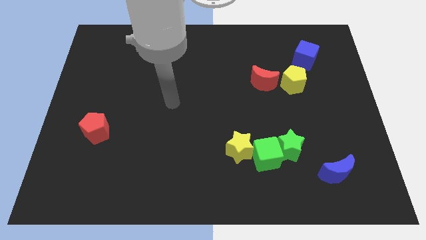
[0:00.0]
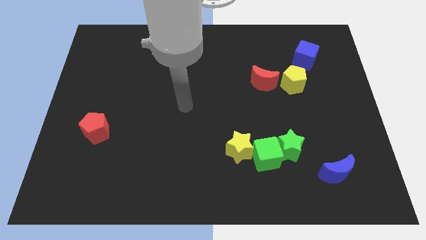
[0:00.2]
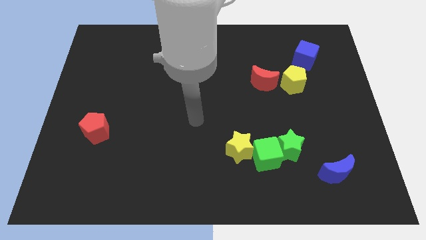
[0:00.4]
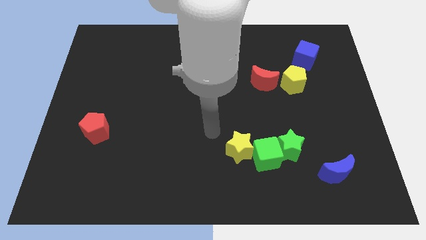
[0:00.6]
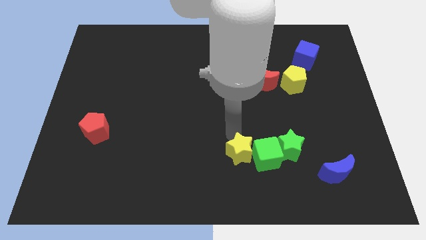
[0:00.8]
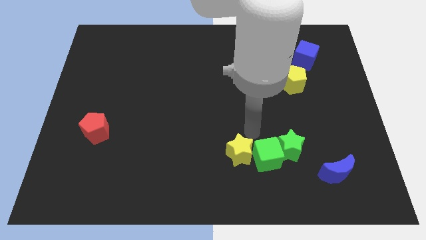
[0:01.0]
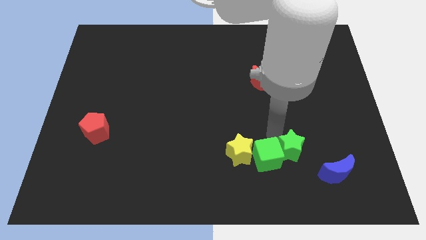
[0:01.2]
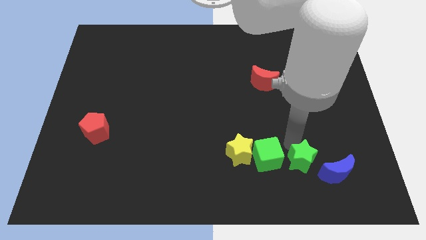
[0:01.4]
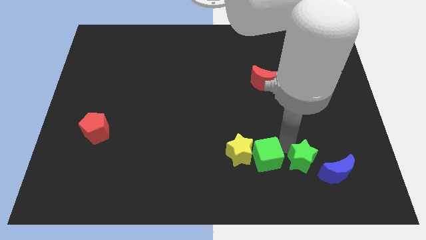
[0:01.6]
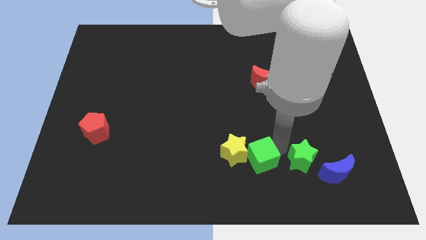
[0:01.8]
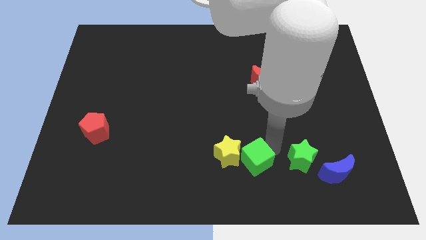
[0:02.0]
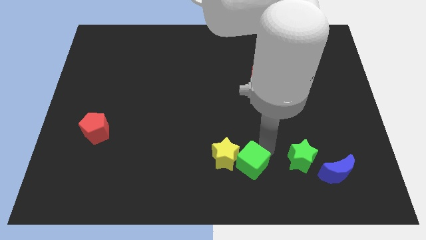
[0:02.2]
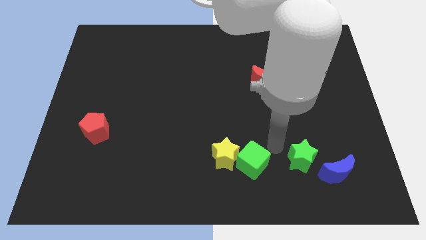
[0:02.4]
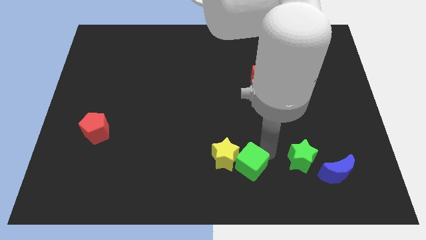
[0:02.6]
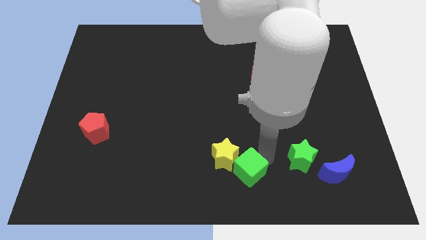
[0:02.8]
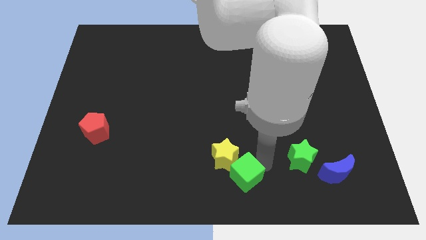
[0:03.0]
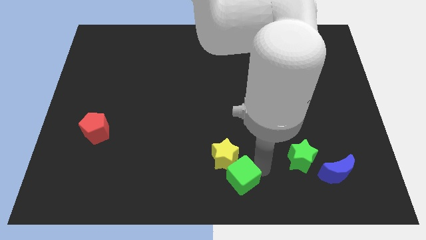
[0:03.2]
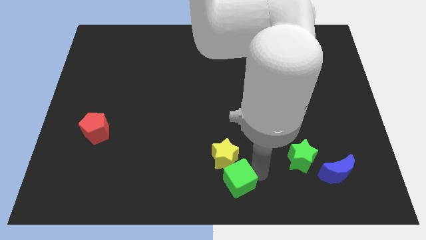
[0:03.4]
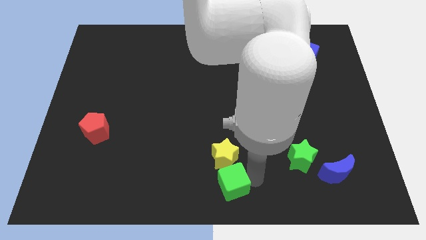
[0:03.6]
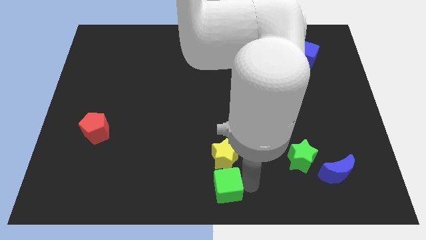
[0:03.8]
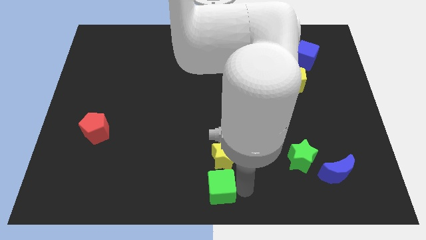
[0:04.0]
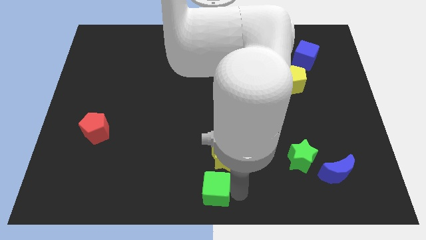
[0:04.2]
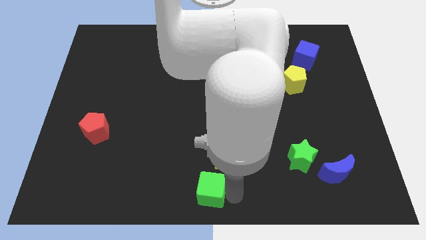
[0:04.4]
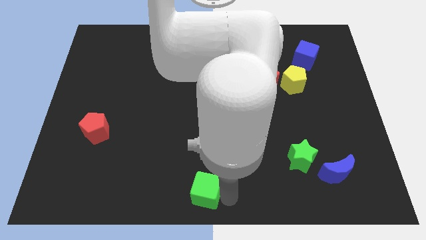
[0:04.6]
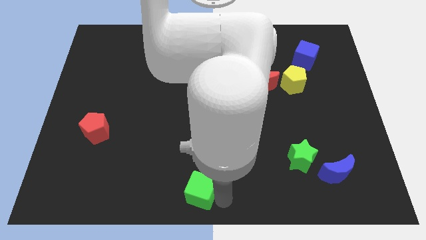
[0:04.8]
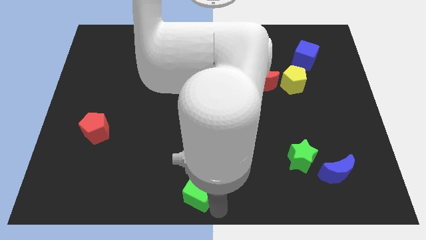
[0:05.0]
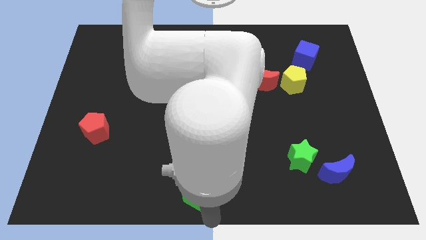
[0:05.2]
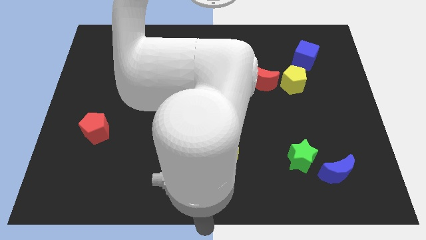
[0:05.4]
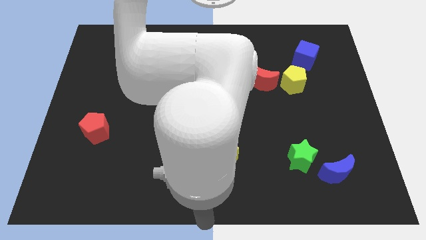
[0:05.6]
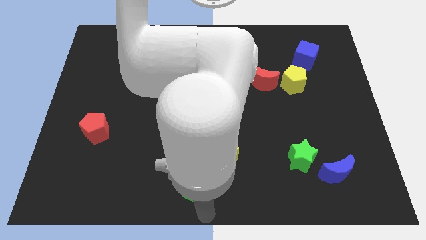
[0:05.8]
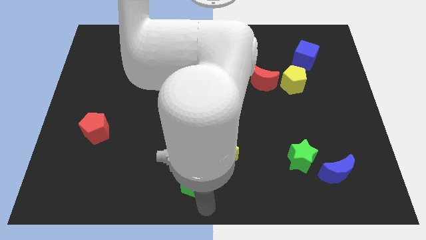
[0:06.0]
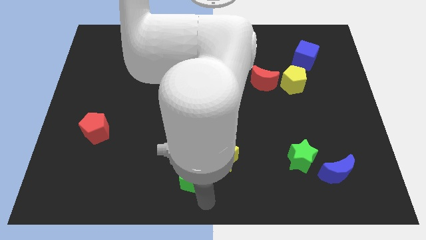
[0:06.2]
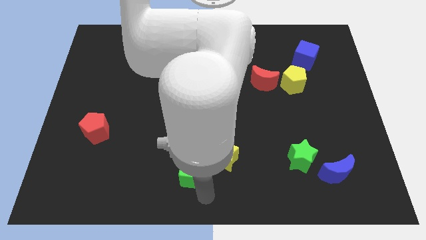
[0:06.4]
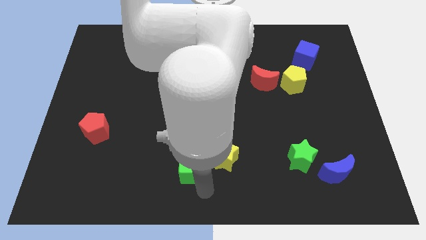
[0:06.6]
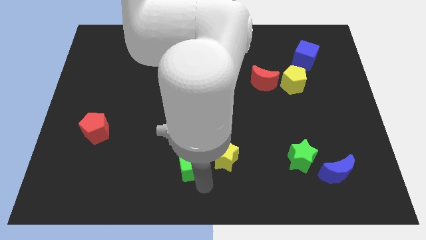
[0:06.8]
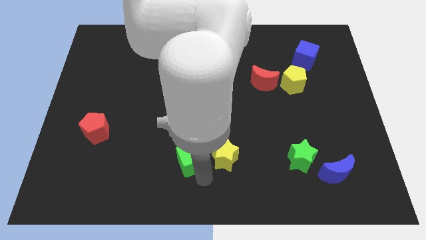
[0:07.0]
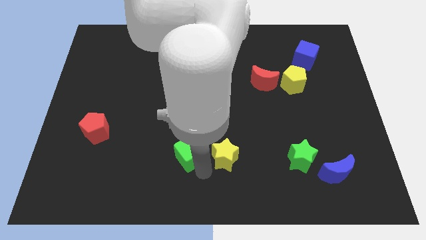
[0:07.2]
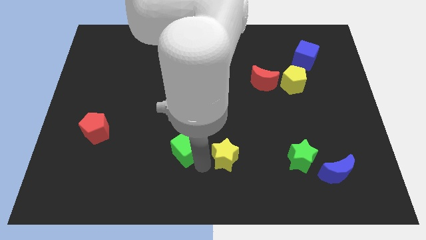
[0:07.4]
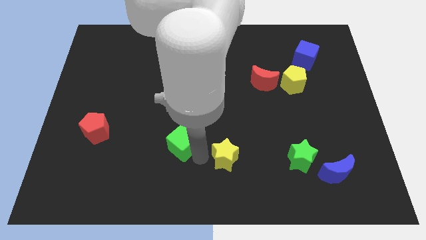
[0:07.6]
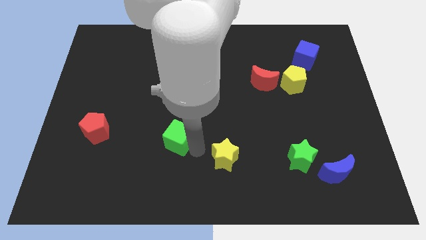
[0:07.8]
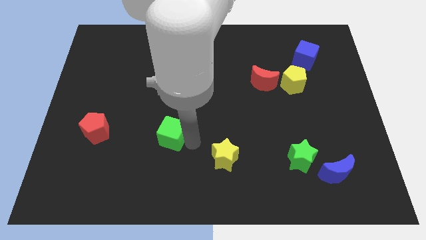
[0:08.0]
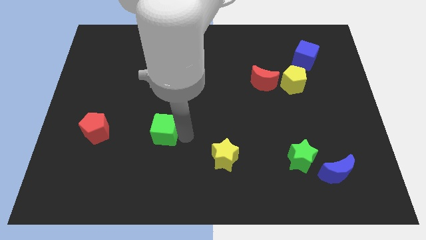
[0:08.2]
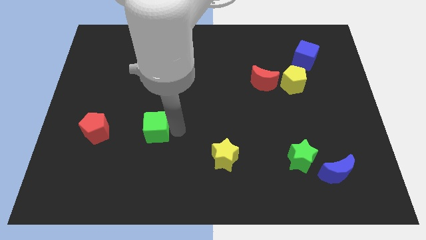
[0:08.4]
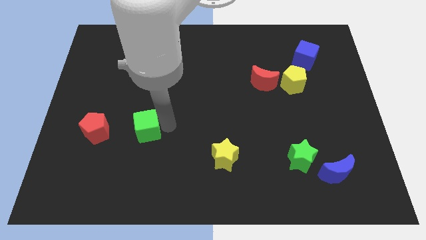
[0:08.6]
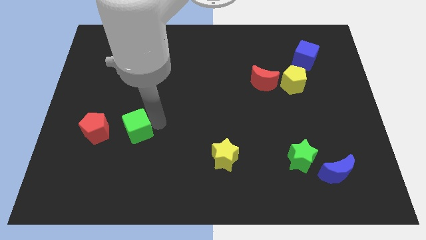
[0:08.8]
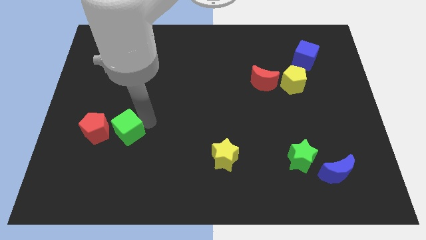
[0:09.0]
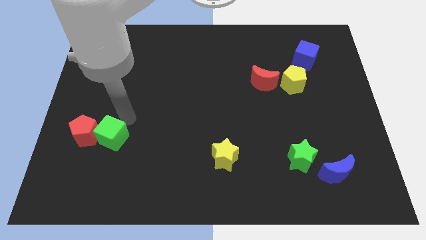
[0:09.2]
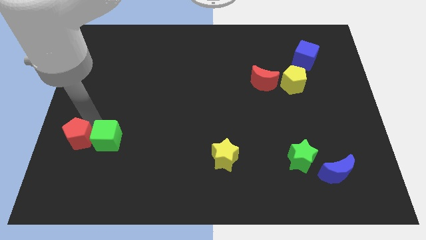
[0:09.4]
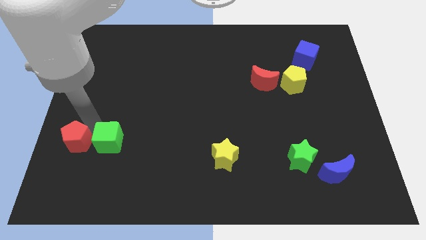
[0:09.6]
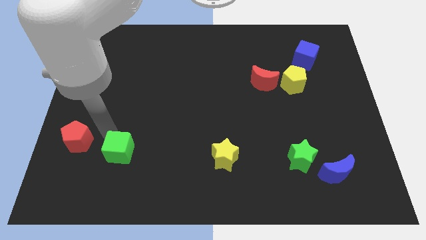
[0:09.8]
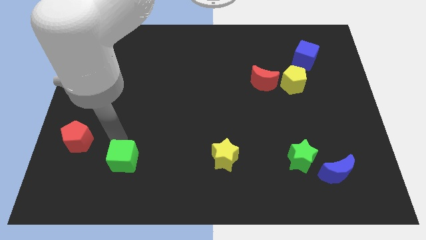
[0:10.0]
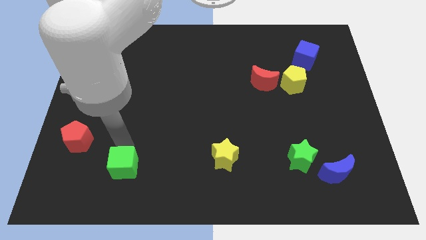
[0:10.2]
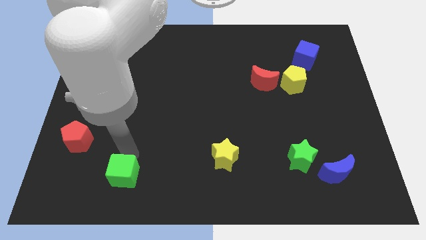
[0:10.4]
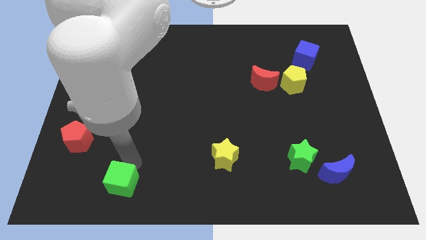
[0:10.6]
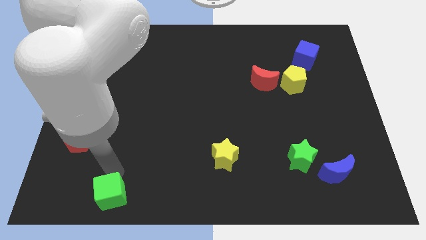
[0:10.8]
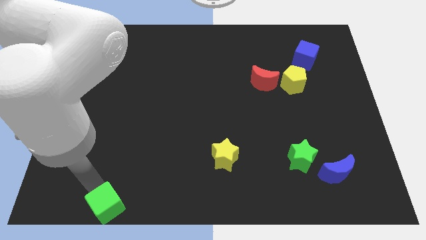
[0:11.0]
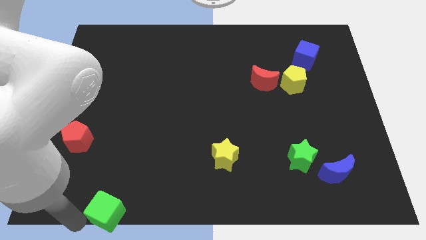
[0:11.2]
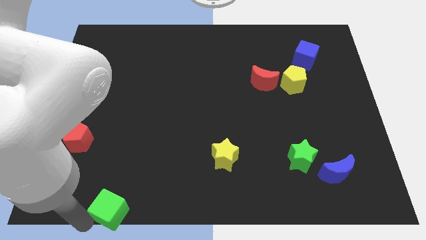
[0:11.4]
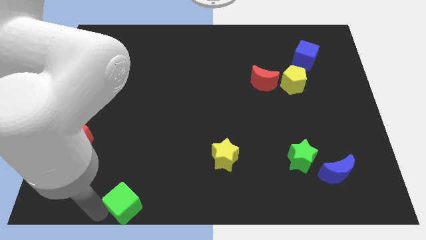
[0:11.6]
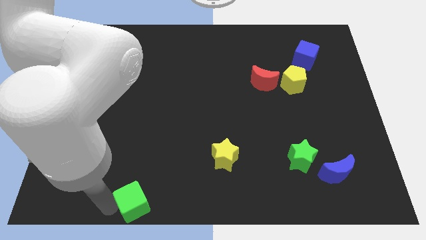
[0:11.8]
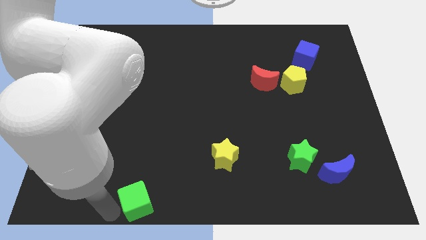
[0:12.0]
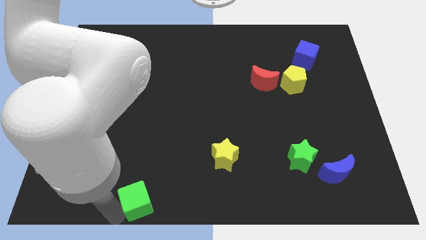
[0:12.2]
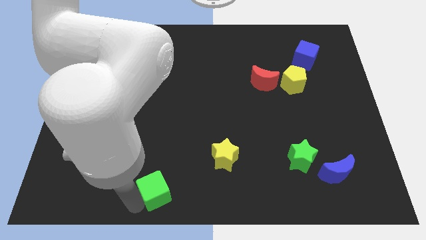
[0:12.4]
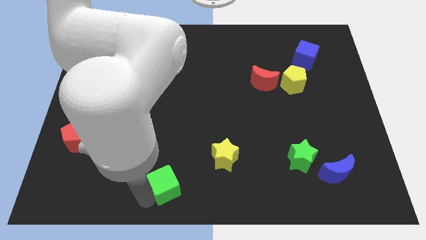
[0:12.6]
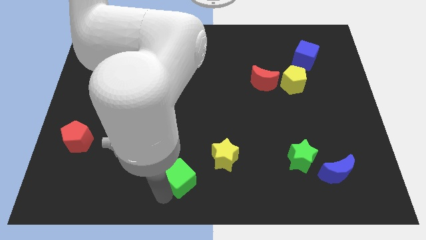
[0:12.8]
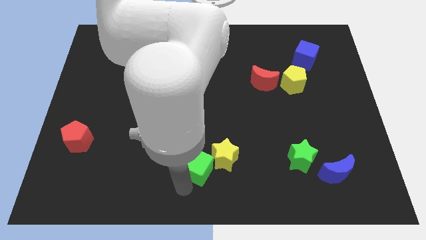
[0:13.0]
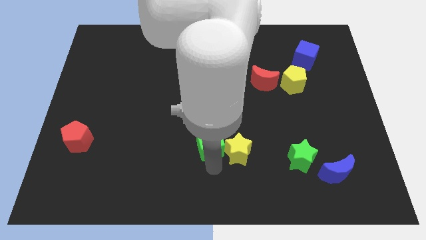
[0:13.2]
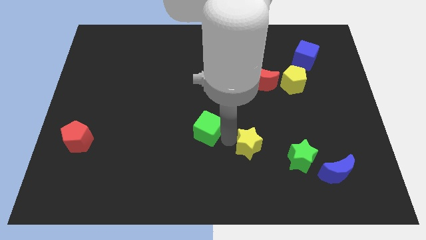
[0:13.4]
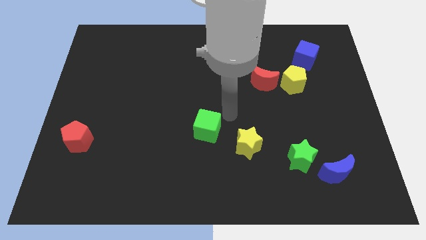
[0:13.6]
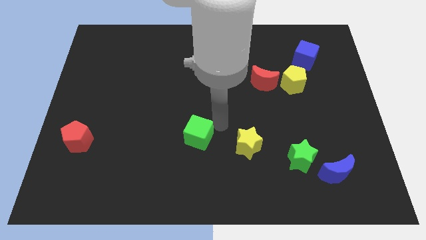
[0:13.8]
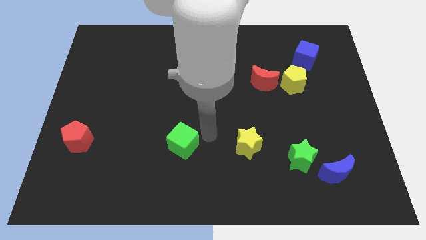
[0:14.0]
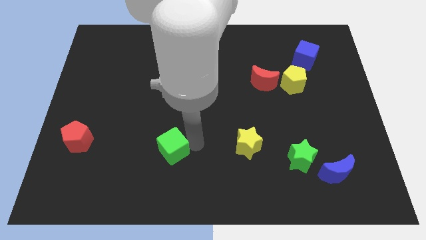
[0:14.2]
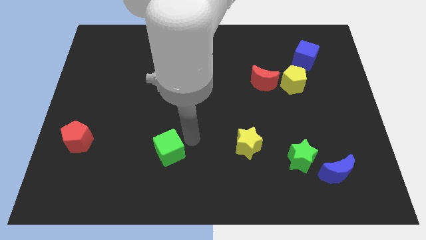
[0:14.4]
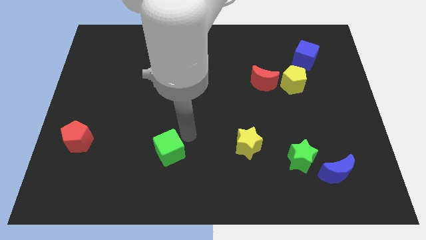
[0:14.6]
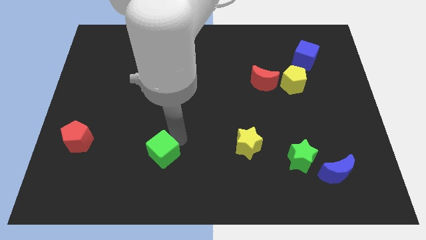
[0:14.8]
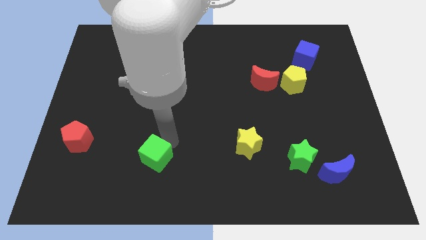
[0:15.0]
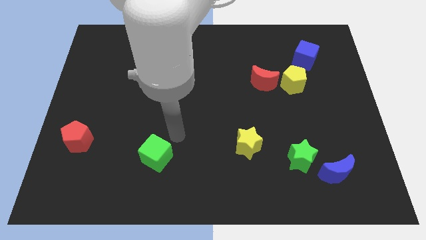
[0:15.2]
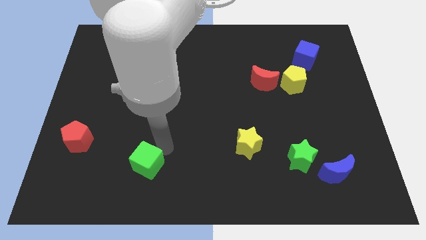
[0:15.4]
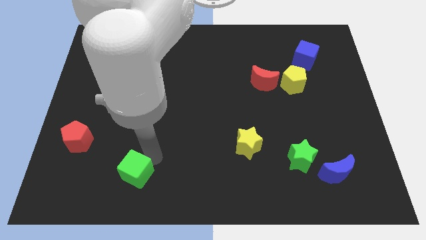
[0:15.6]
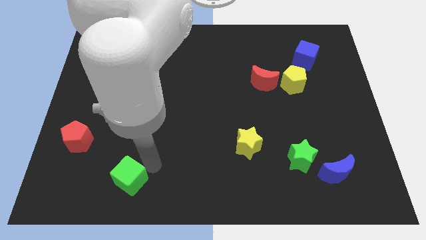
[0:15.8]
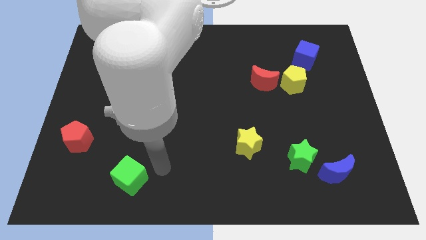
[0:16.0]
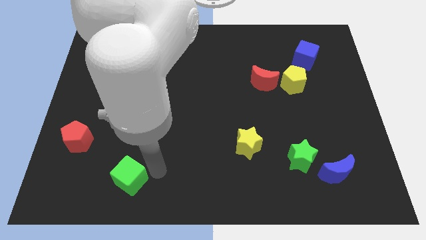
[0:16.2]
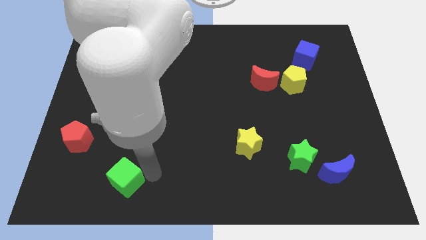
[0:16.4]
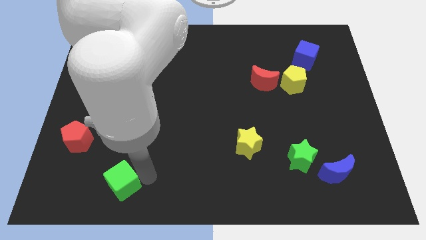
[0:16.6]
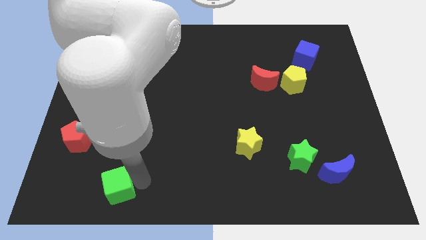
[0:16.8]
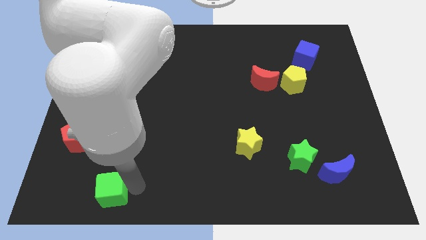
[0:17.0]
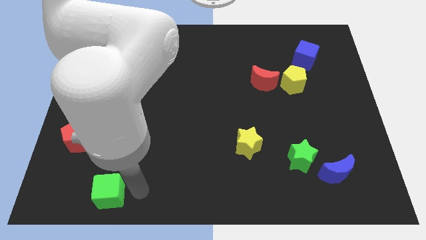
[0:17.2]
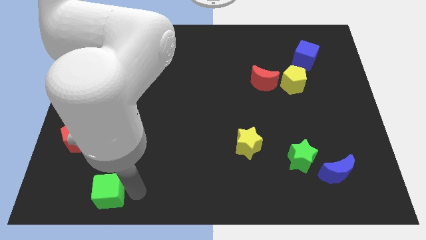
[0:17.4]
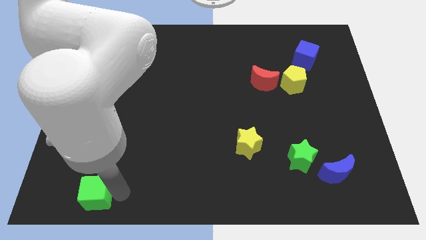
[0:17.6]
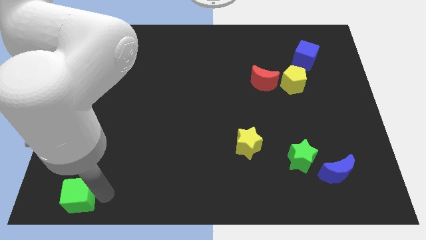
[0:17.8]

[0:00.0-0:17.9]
slide the green cube to the bottom left
